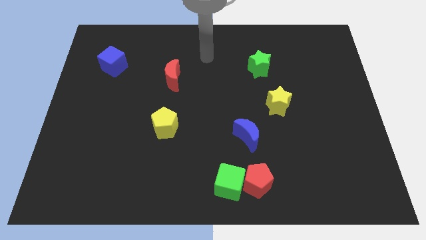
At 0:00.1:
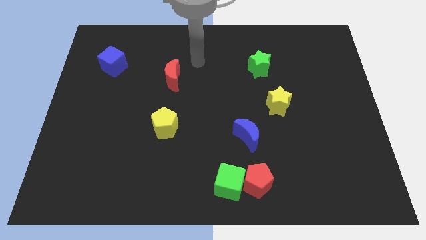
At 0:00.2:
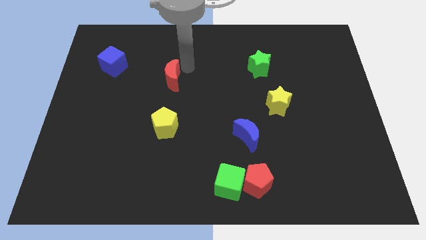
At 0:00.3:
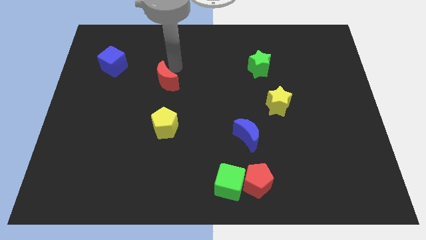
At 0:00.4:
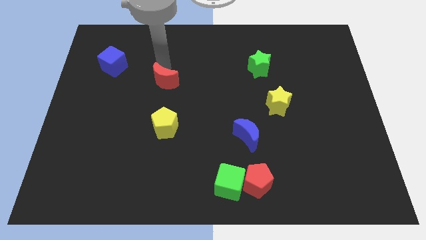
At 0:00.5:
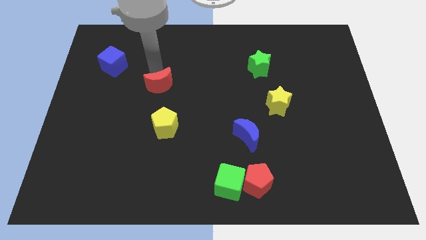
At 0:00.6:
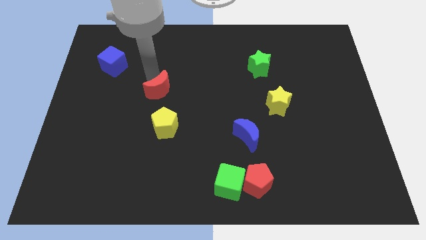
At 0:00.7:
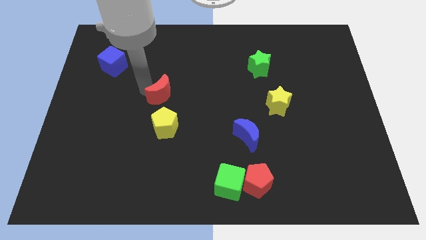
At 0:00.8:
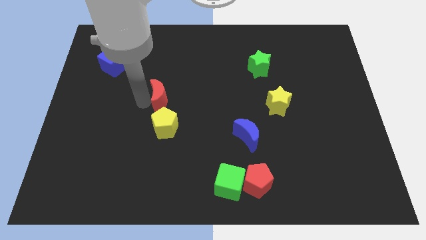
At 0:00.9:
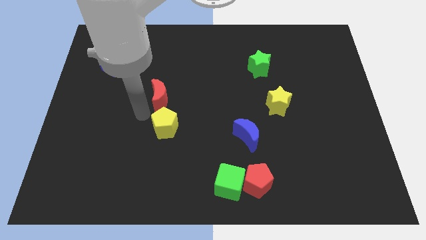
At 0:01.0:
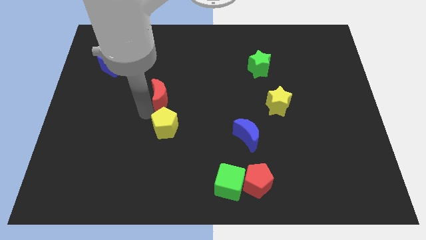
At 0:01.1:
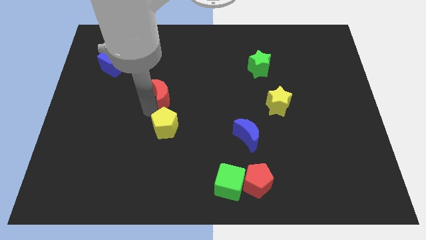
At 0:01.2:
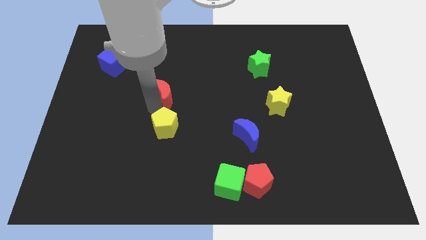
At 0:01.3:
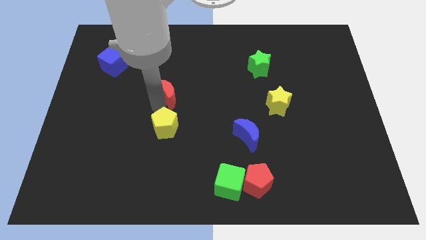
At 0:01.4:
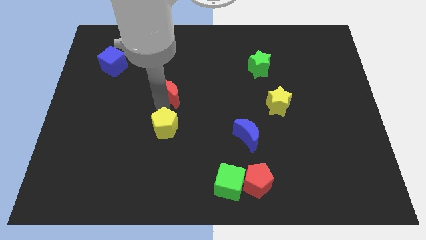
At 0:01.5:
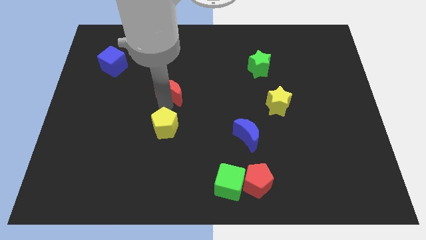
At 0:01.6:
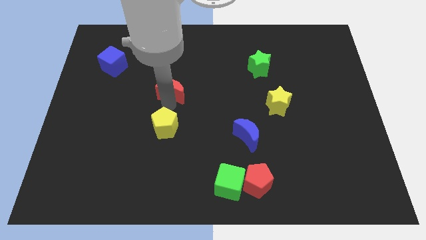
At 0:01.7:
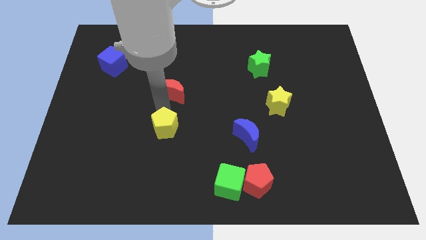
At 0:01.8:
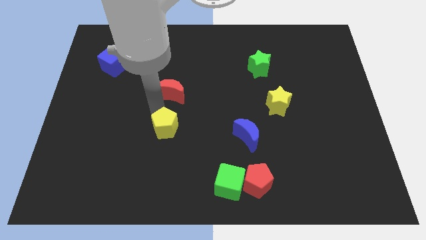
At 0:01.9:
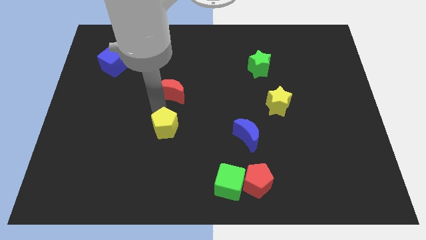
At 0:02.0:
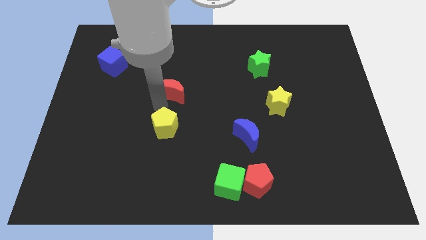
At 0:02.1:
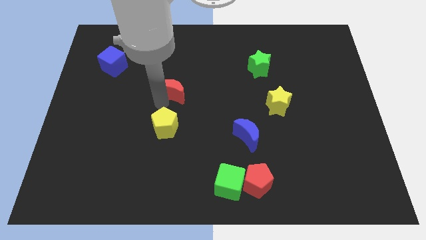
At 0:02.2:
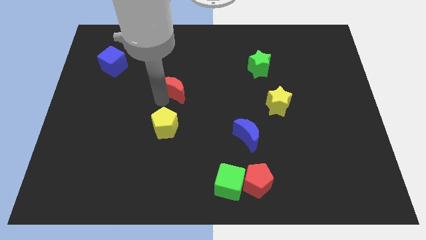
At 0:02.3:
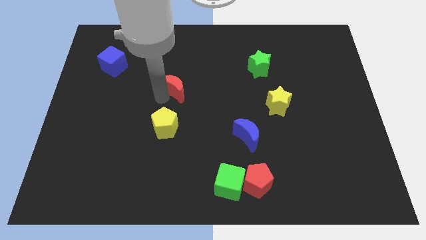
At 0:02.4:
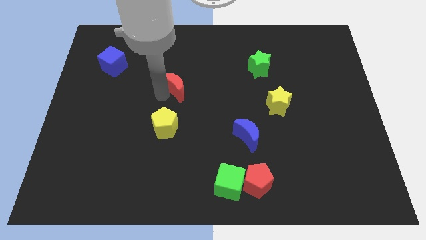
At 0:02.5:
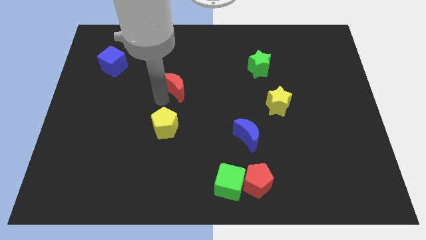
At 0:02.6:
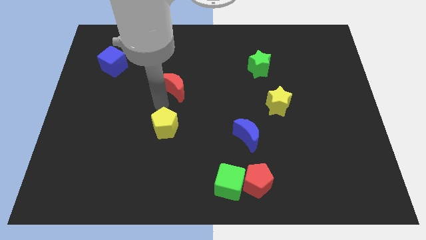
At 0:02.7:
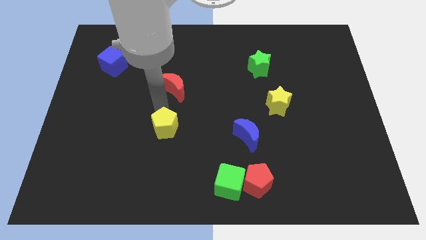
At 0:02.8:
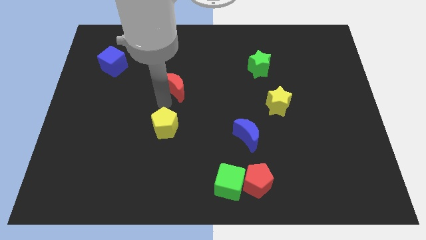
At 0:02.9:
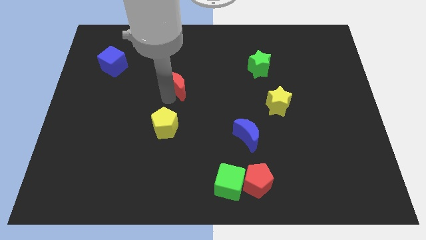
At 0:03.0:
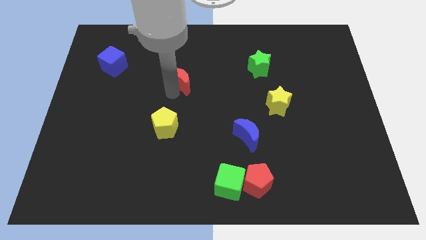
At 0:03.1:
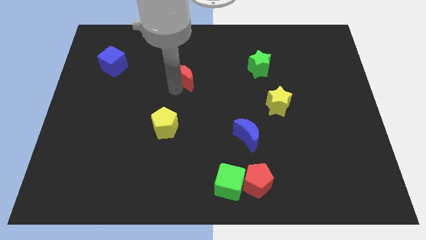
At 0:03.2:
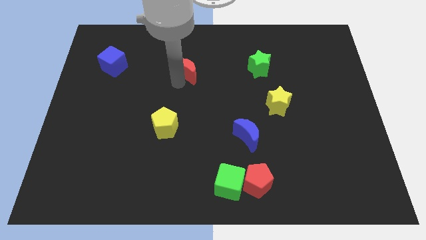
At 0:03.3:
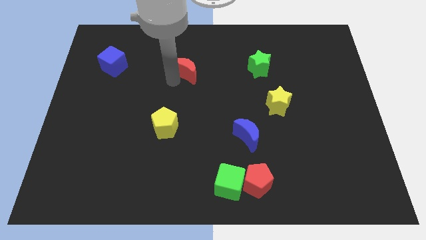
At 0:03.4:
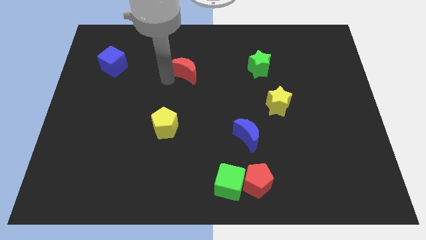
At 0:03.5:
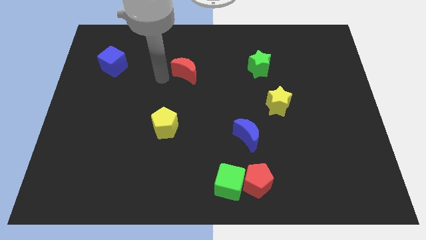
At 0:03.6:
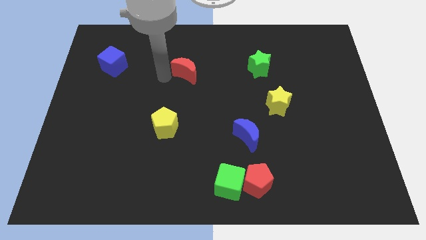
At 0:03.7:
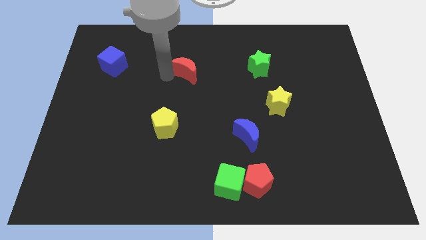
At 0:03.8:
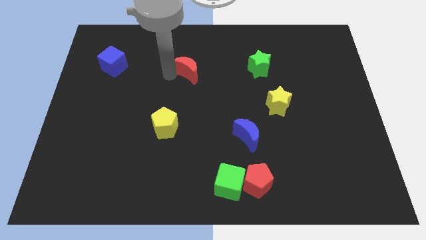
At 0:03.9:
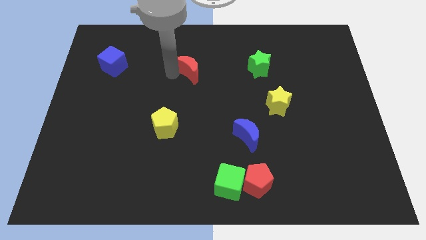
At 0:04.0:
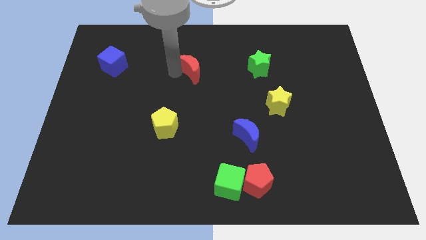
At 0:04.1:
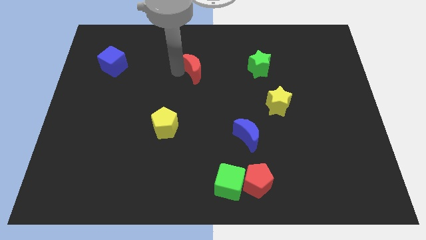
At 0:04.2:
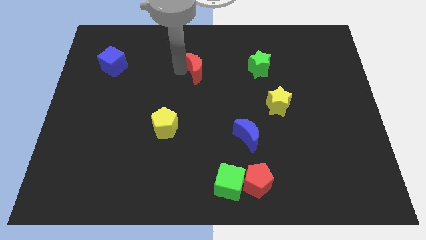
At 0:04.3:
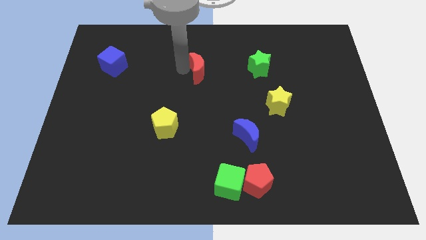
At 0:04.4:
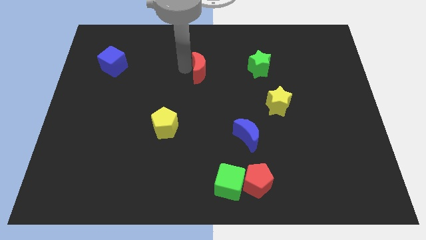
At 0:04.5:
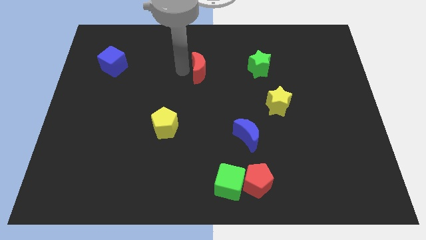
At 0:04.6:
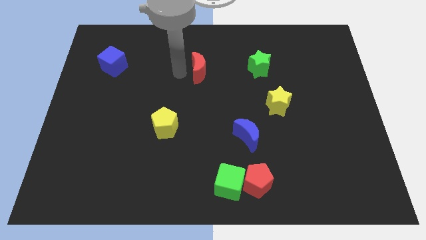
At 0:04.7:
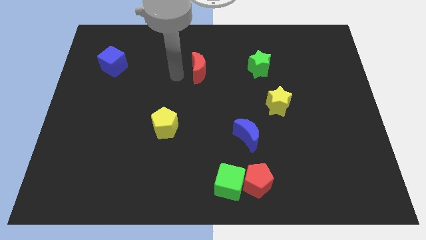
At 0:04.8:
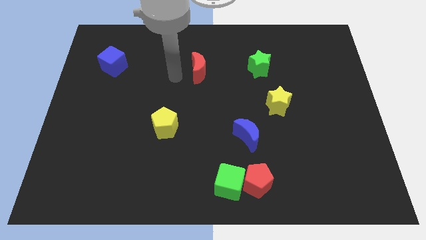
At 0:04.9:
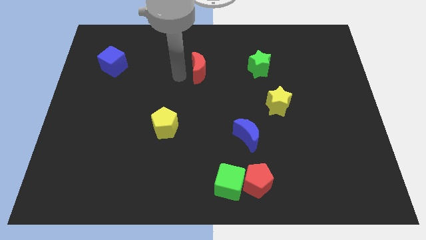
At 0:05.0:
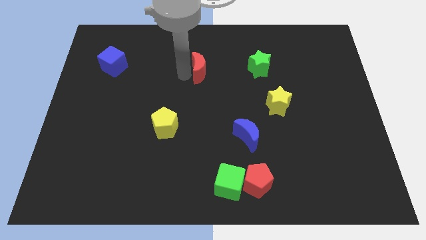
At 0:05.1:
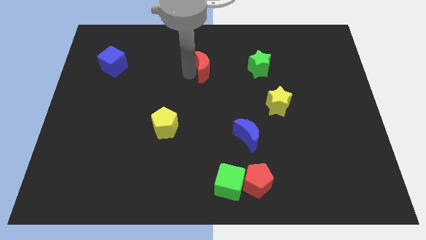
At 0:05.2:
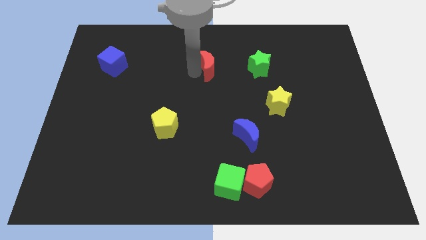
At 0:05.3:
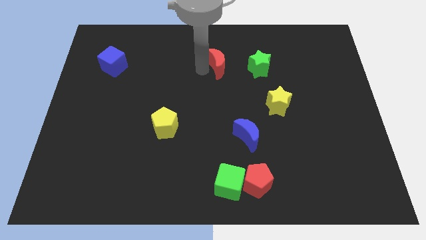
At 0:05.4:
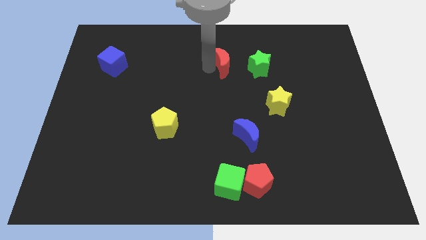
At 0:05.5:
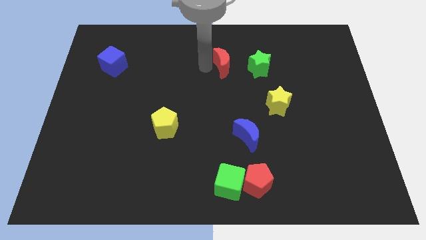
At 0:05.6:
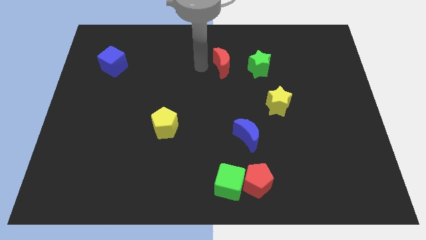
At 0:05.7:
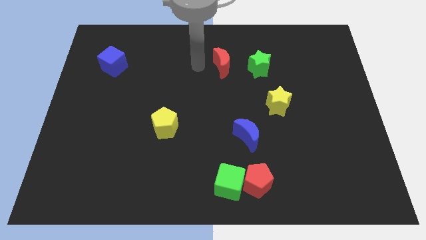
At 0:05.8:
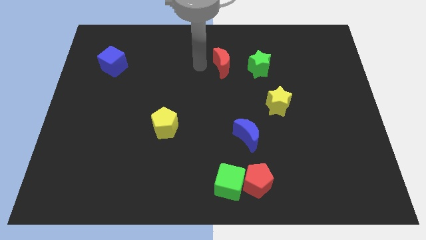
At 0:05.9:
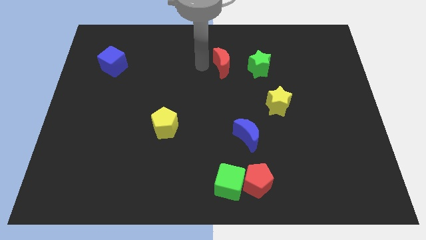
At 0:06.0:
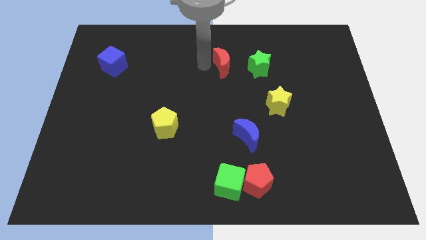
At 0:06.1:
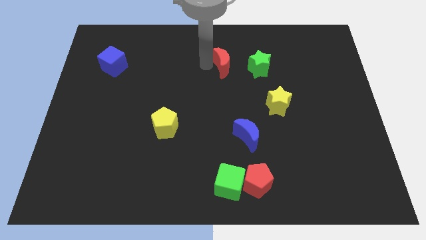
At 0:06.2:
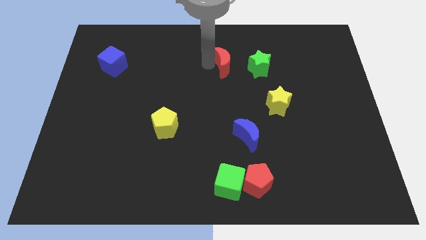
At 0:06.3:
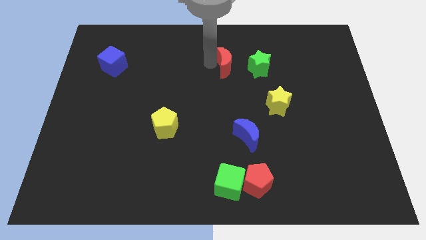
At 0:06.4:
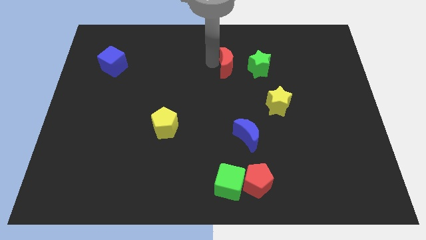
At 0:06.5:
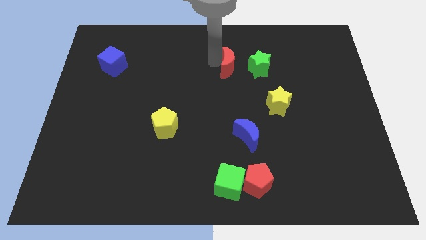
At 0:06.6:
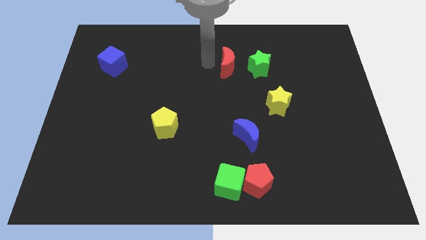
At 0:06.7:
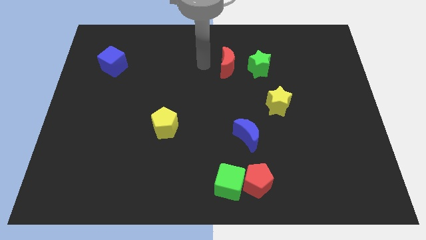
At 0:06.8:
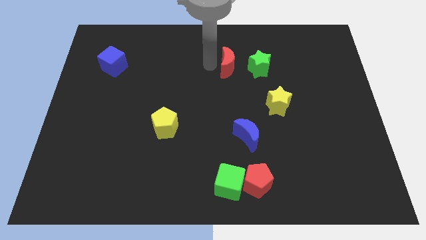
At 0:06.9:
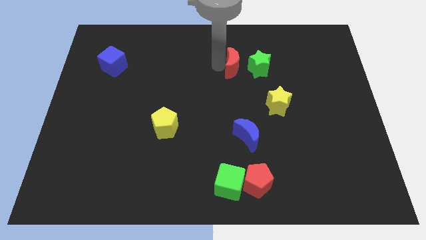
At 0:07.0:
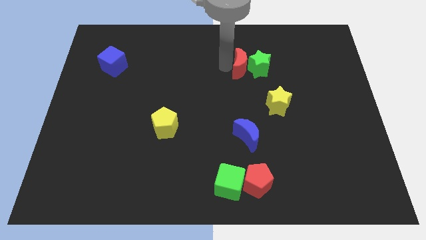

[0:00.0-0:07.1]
push the red moon towards the green star

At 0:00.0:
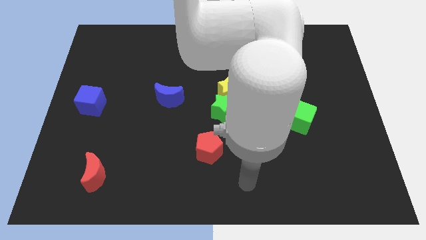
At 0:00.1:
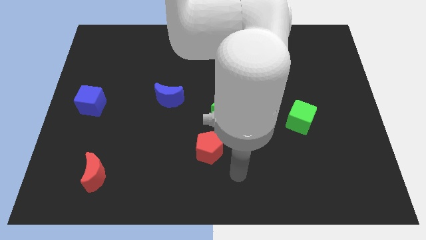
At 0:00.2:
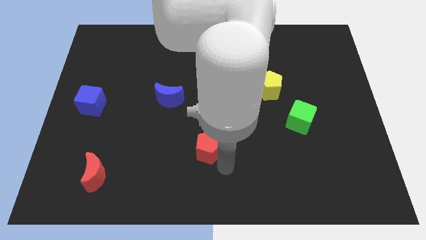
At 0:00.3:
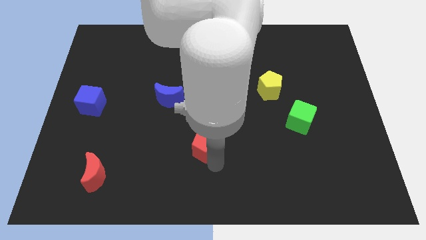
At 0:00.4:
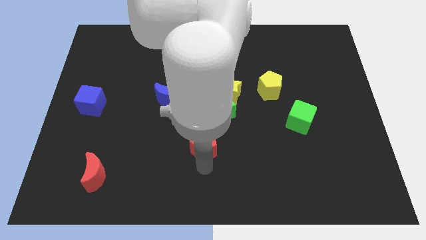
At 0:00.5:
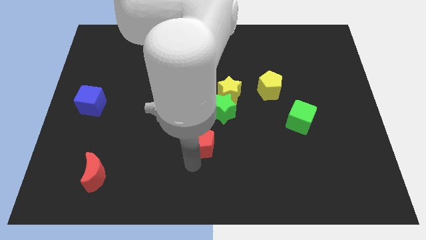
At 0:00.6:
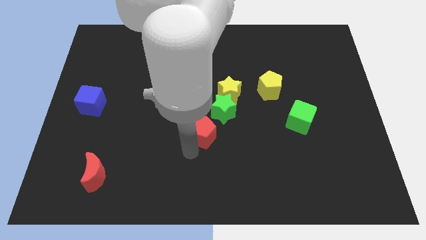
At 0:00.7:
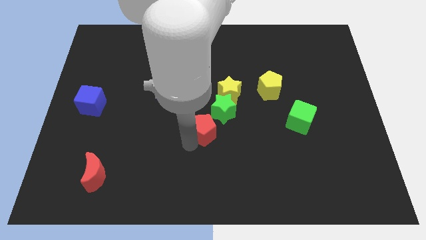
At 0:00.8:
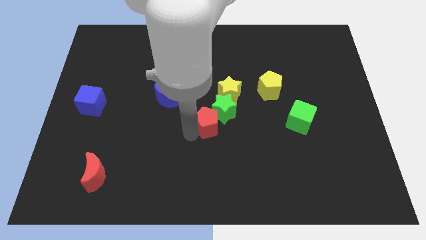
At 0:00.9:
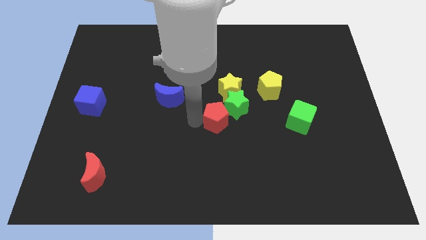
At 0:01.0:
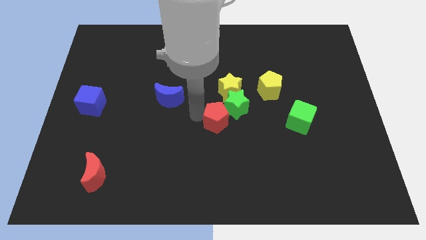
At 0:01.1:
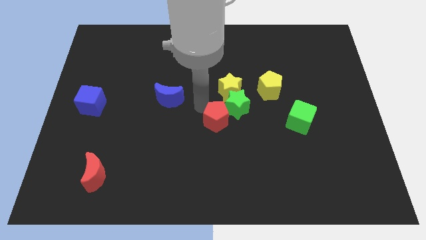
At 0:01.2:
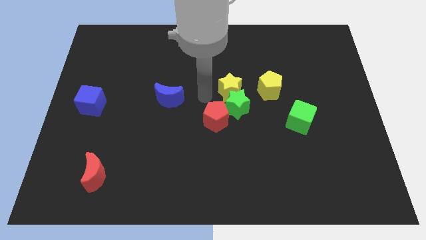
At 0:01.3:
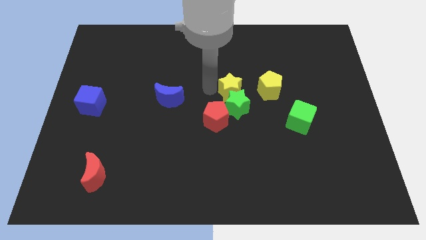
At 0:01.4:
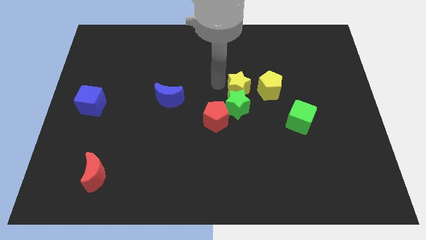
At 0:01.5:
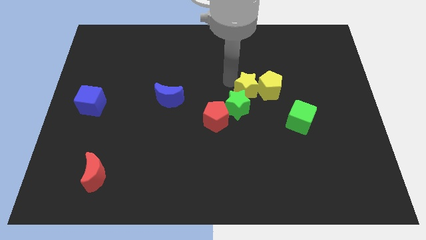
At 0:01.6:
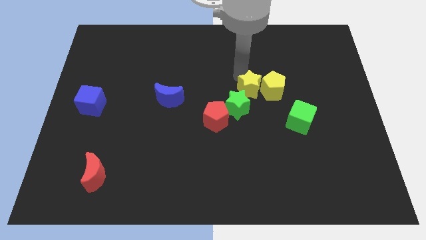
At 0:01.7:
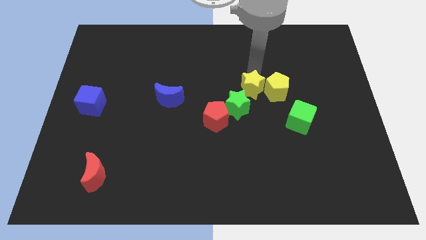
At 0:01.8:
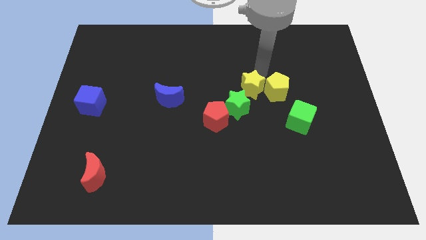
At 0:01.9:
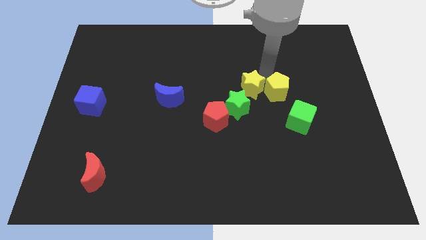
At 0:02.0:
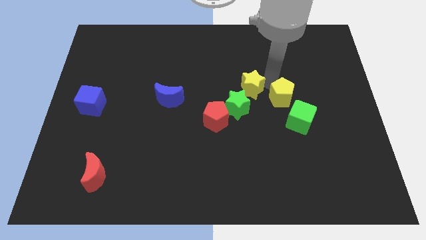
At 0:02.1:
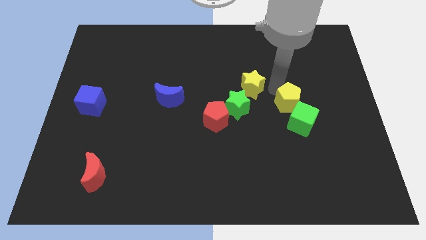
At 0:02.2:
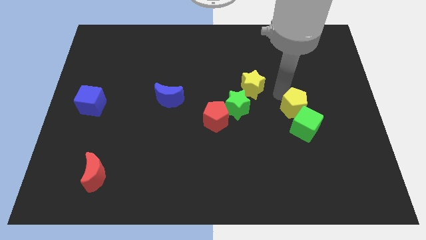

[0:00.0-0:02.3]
push the yellow pentagon next to the green cube
